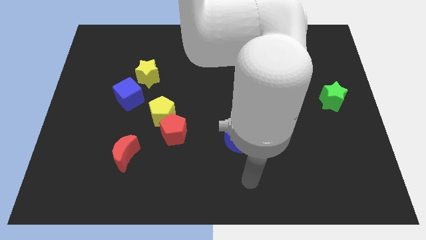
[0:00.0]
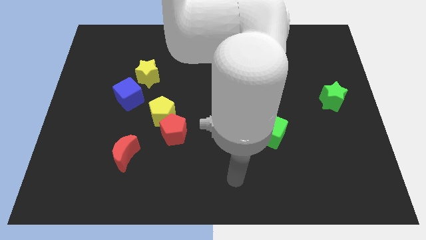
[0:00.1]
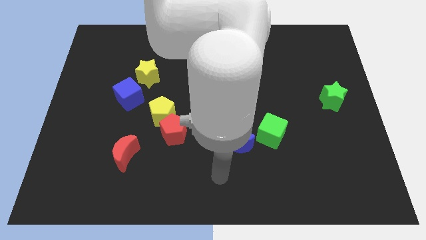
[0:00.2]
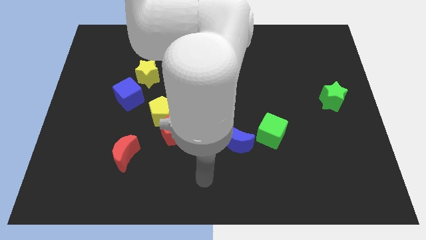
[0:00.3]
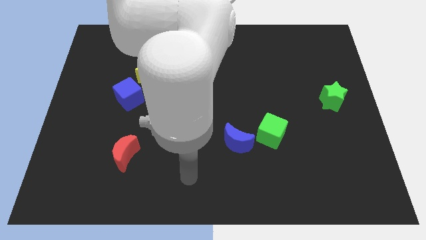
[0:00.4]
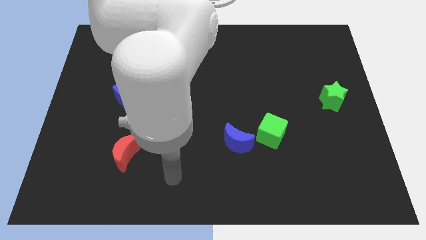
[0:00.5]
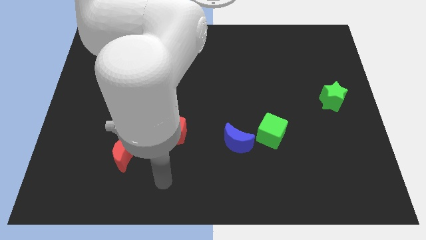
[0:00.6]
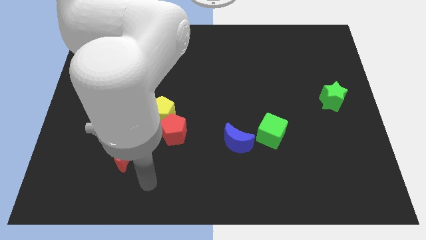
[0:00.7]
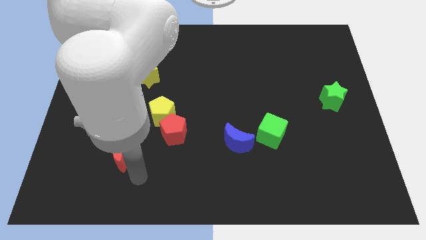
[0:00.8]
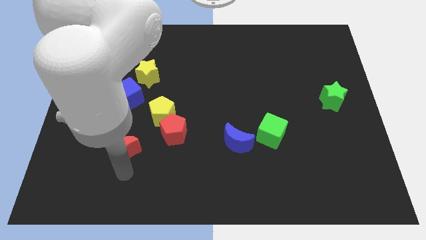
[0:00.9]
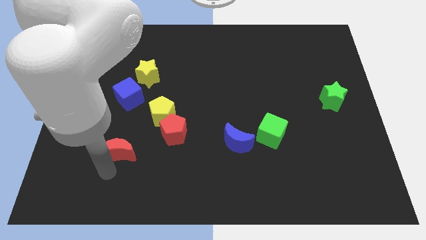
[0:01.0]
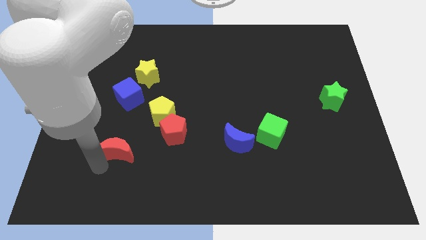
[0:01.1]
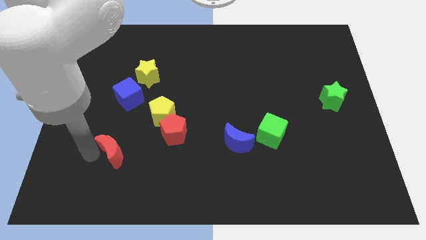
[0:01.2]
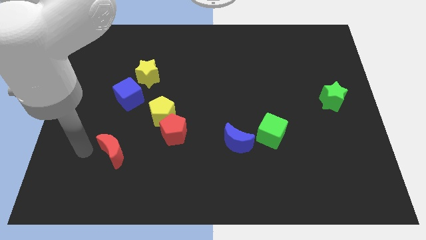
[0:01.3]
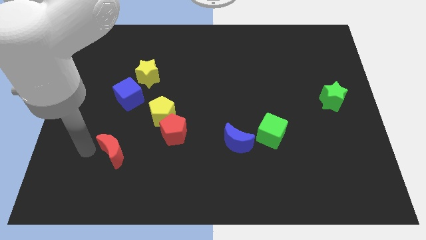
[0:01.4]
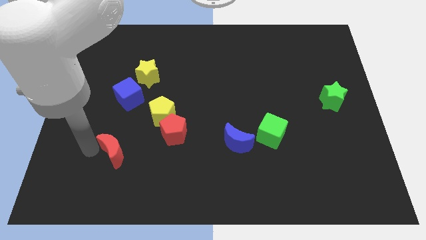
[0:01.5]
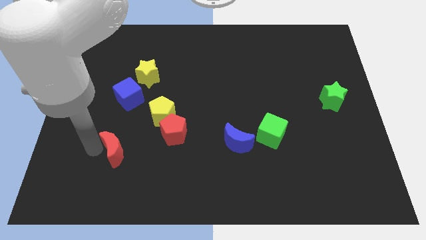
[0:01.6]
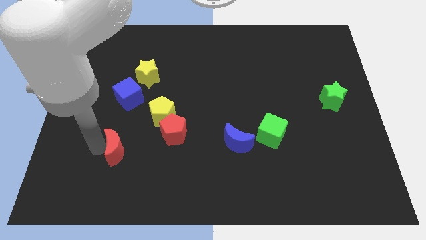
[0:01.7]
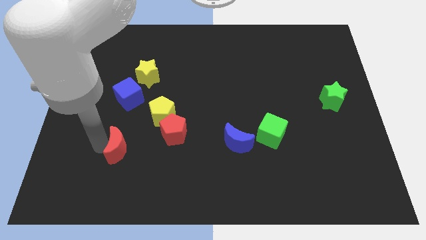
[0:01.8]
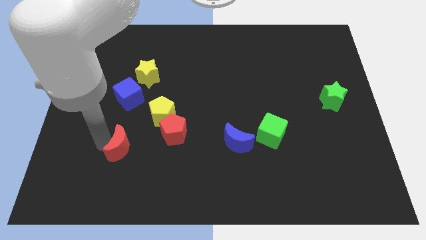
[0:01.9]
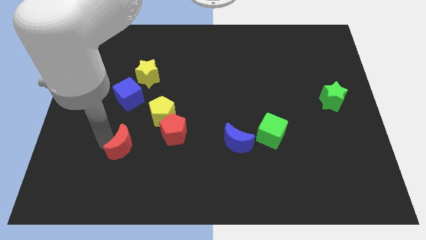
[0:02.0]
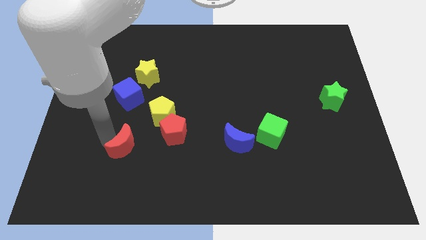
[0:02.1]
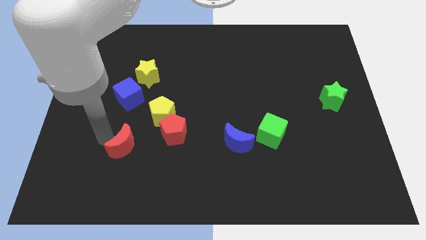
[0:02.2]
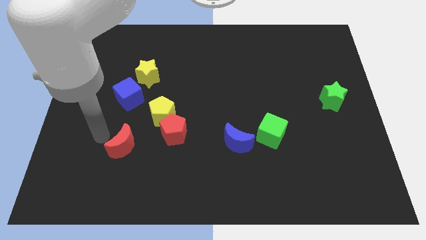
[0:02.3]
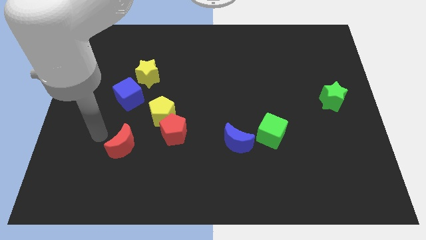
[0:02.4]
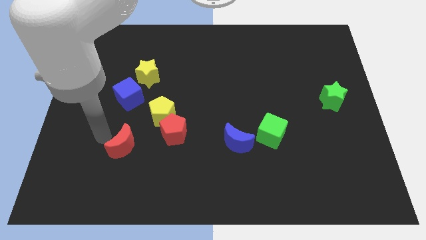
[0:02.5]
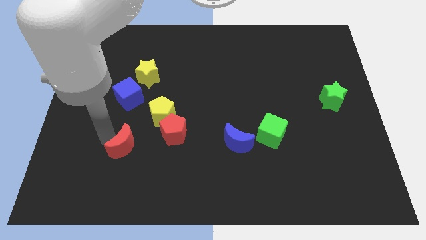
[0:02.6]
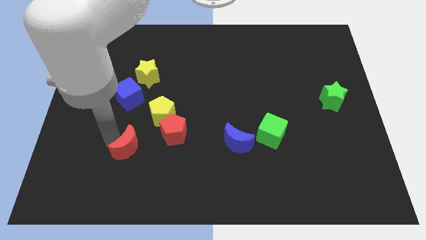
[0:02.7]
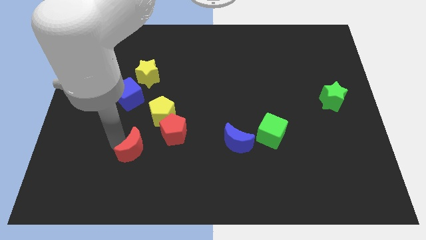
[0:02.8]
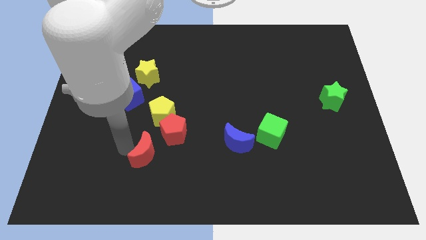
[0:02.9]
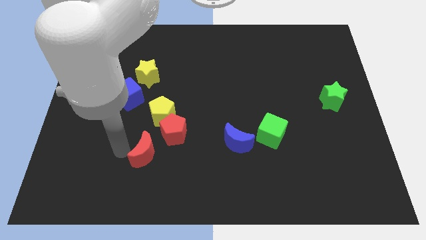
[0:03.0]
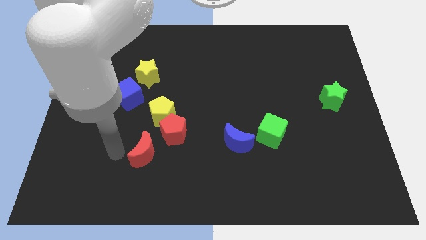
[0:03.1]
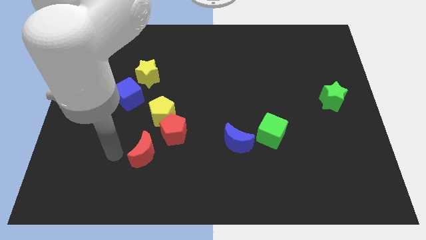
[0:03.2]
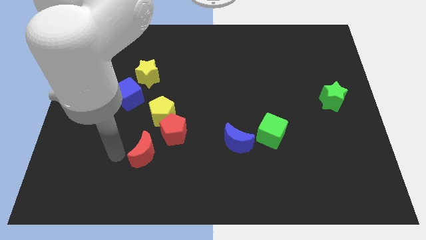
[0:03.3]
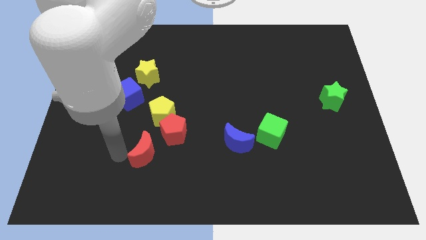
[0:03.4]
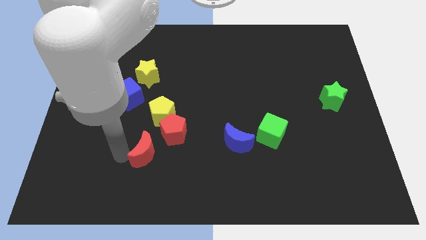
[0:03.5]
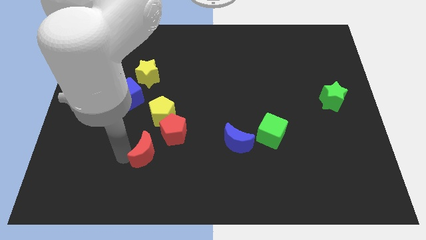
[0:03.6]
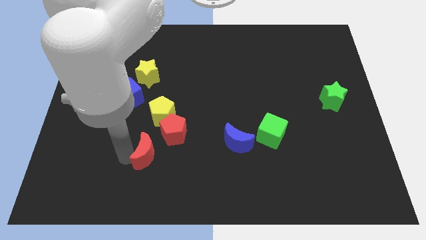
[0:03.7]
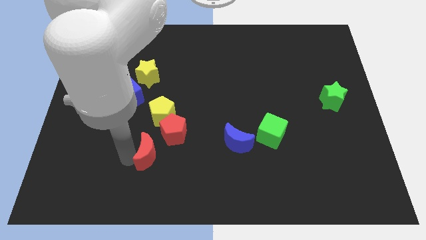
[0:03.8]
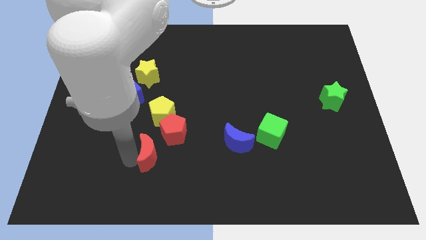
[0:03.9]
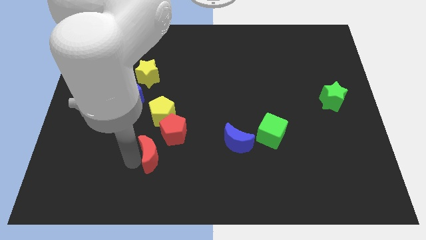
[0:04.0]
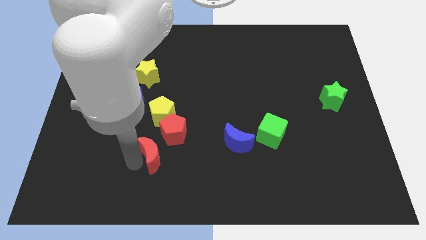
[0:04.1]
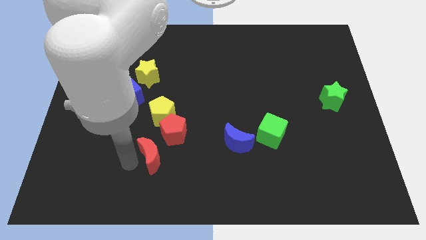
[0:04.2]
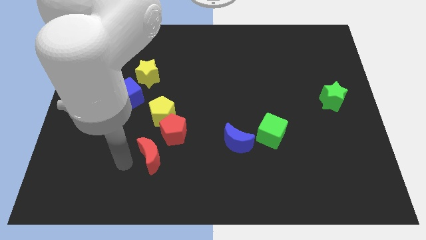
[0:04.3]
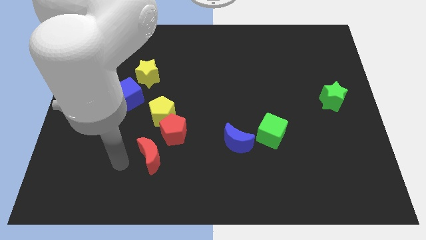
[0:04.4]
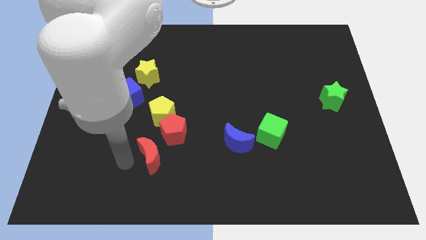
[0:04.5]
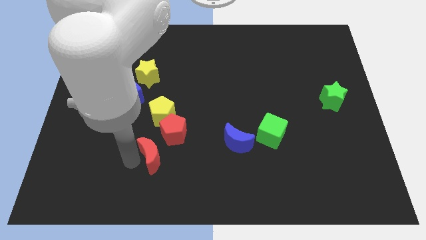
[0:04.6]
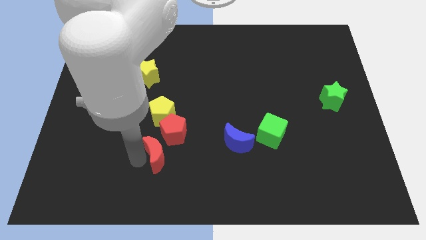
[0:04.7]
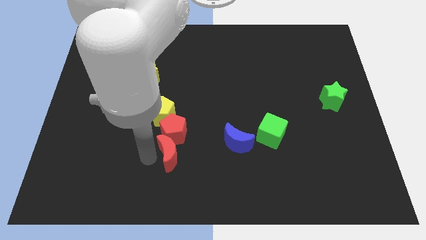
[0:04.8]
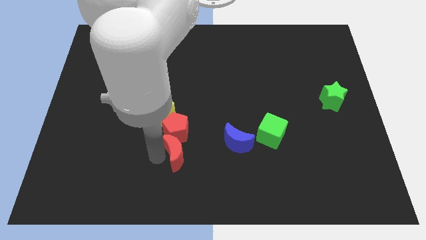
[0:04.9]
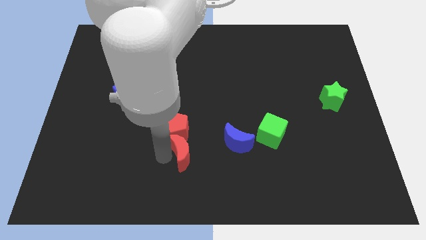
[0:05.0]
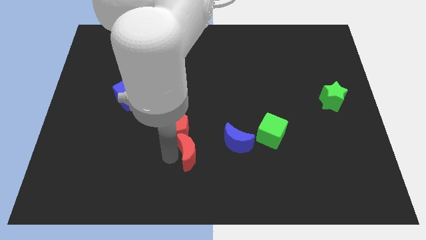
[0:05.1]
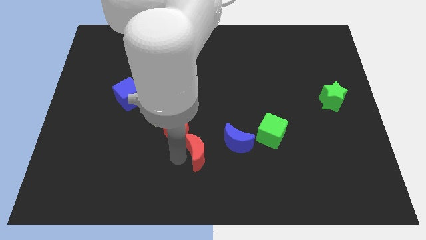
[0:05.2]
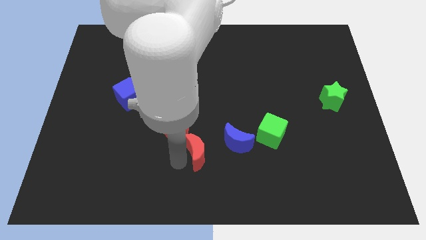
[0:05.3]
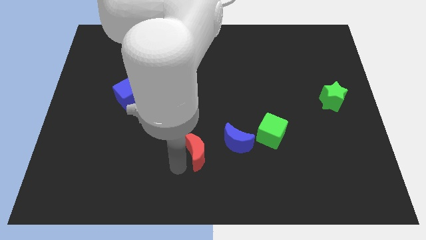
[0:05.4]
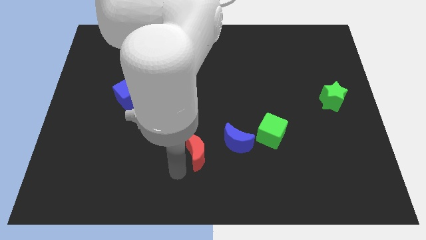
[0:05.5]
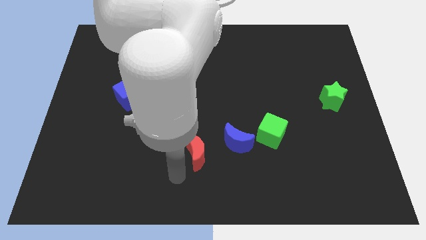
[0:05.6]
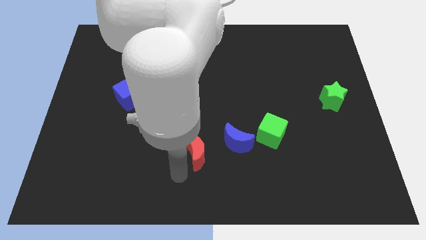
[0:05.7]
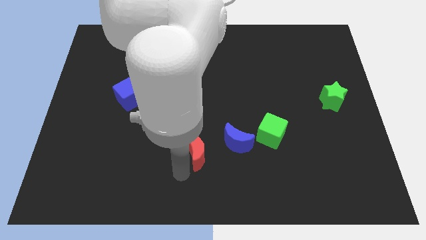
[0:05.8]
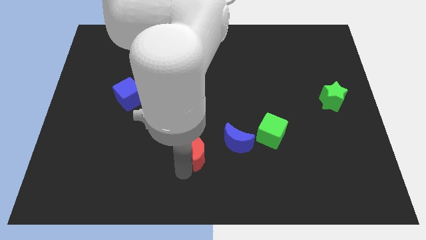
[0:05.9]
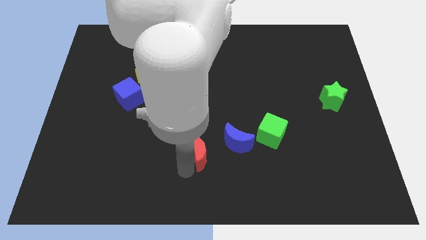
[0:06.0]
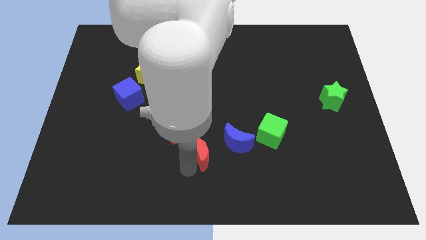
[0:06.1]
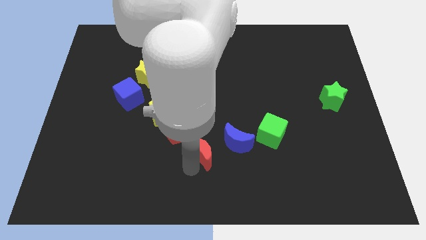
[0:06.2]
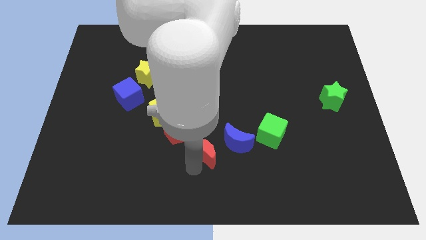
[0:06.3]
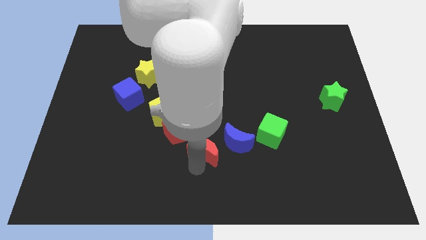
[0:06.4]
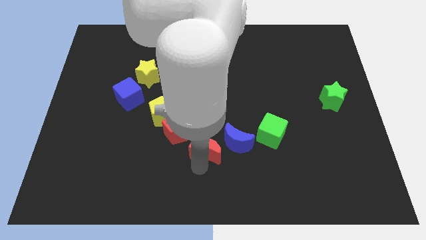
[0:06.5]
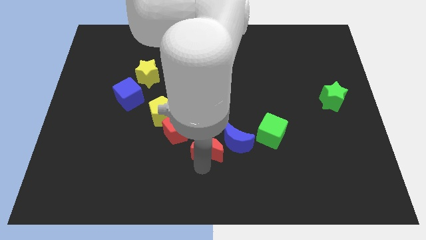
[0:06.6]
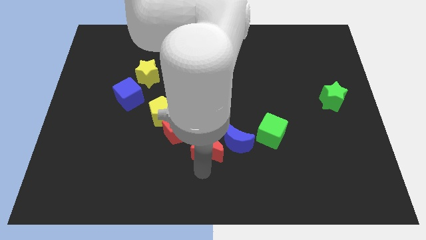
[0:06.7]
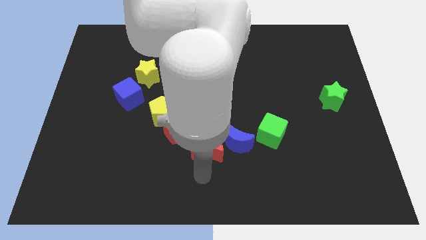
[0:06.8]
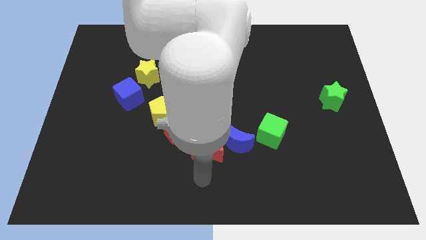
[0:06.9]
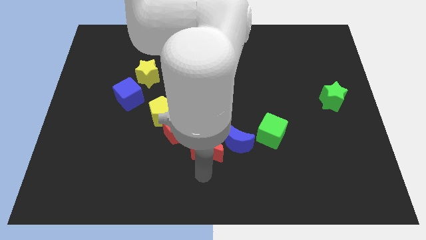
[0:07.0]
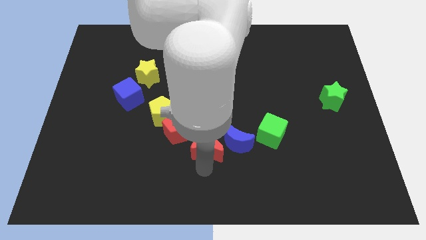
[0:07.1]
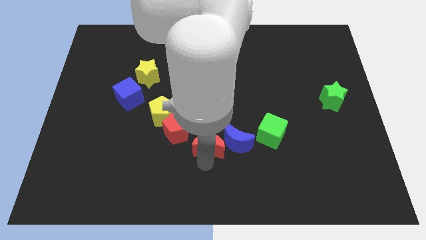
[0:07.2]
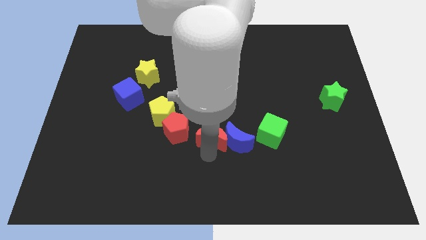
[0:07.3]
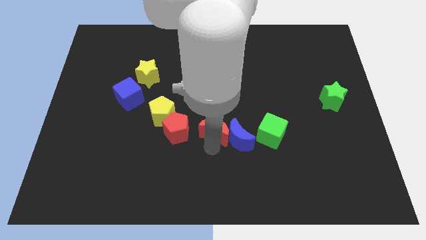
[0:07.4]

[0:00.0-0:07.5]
move the red moon just right of the yellow pentagon

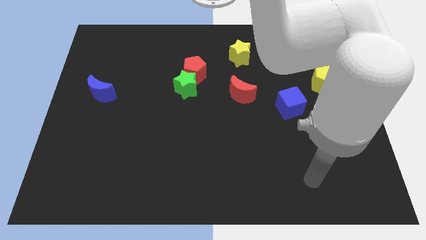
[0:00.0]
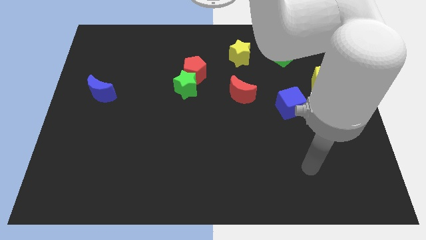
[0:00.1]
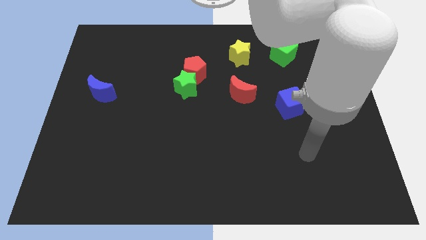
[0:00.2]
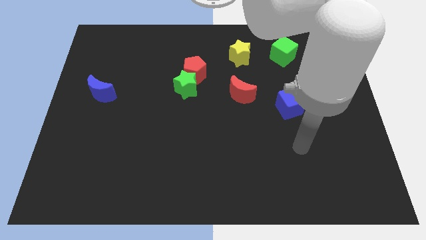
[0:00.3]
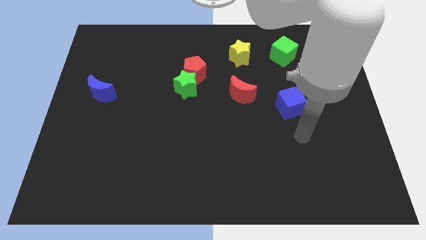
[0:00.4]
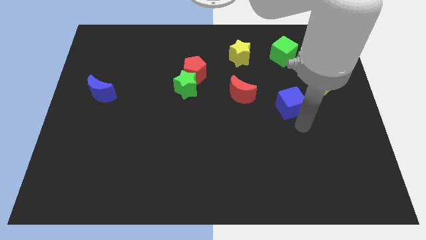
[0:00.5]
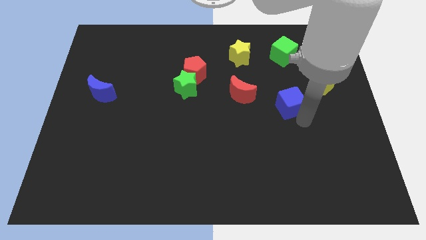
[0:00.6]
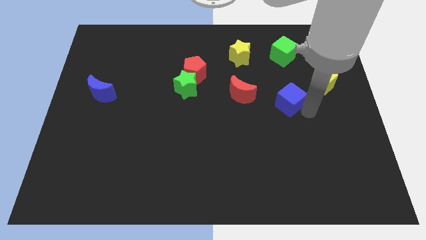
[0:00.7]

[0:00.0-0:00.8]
put the green cube to the top side of the blue cube
